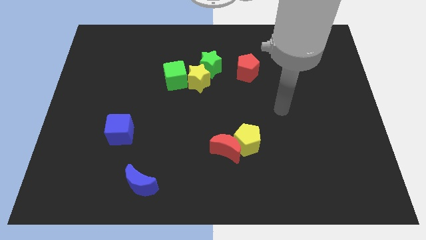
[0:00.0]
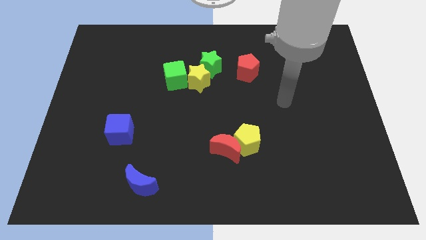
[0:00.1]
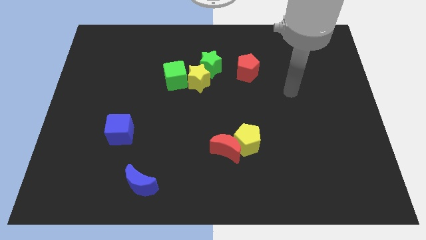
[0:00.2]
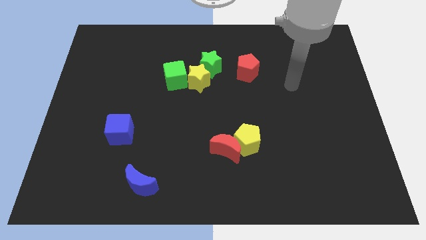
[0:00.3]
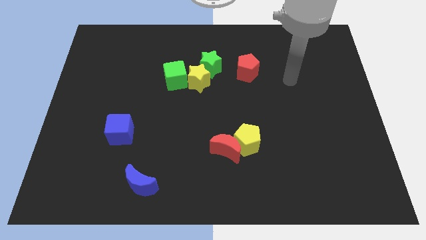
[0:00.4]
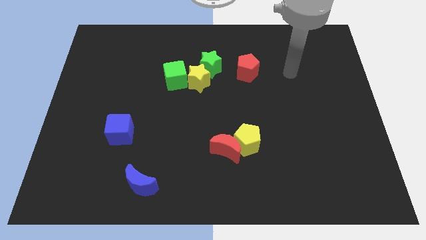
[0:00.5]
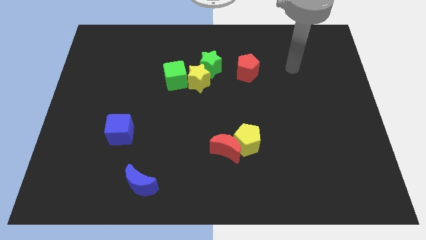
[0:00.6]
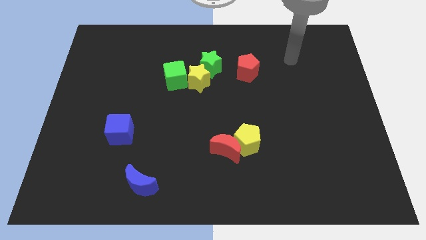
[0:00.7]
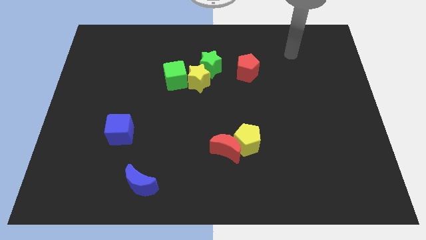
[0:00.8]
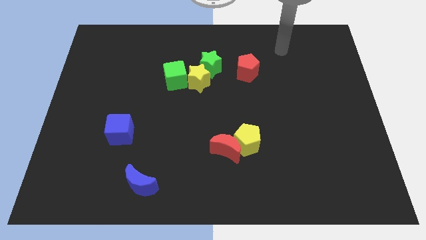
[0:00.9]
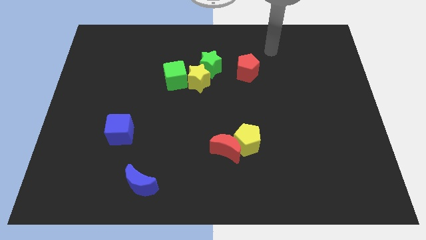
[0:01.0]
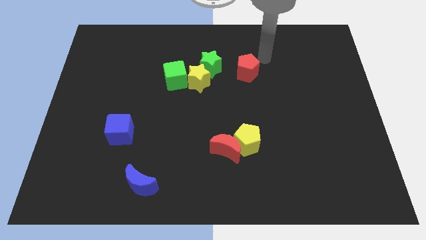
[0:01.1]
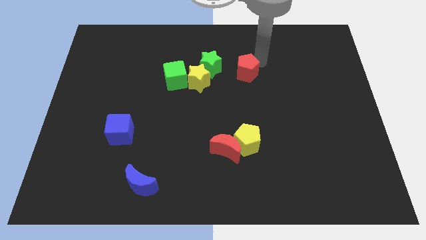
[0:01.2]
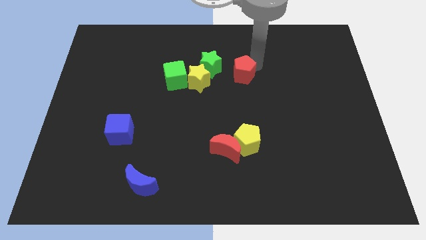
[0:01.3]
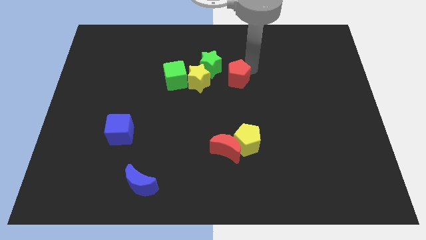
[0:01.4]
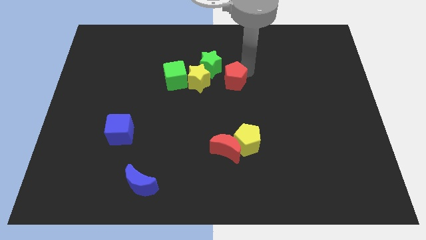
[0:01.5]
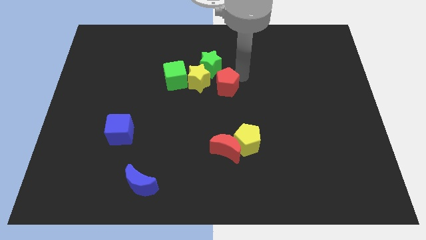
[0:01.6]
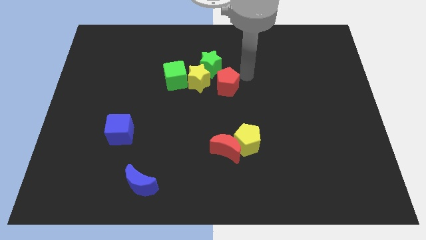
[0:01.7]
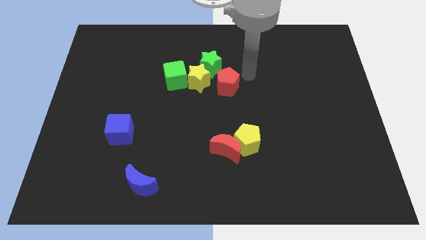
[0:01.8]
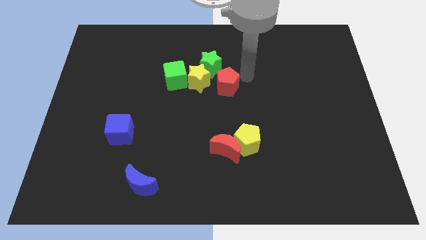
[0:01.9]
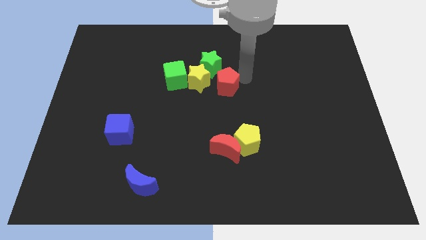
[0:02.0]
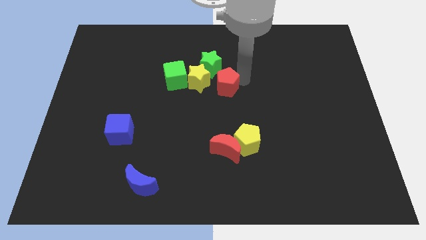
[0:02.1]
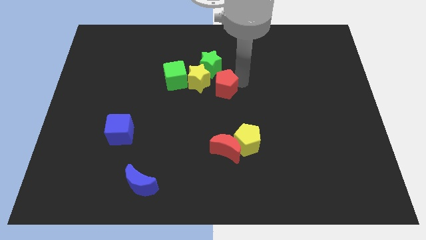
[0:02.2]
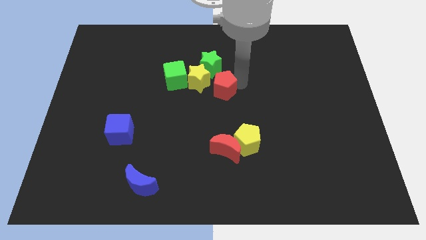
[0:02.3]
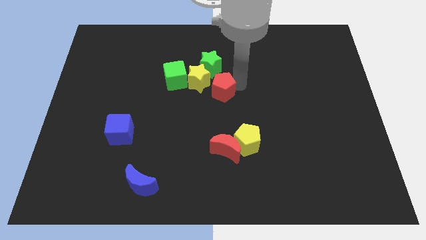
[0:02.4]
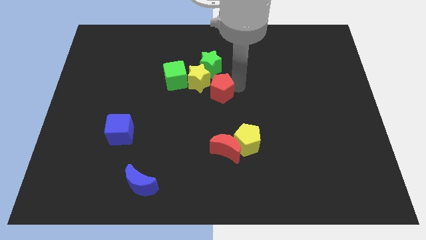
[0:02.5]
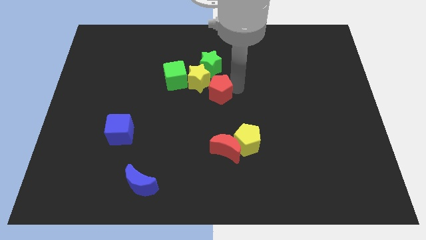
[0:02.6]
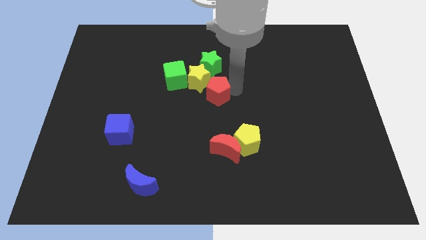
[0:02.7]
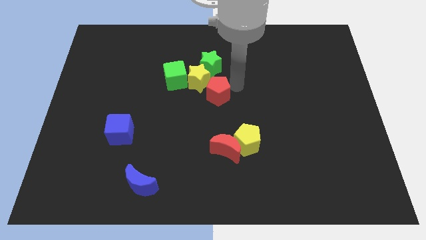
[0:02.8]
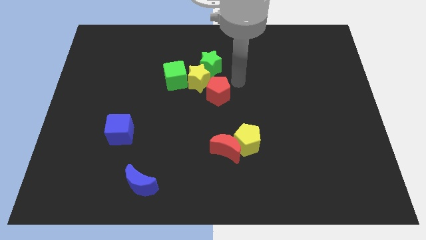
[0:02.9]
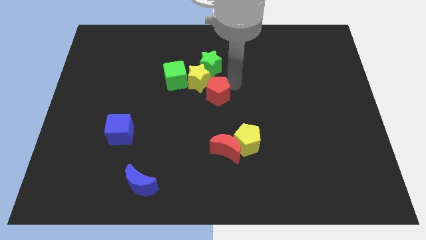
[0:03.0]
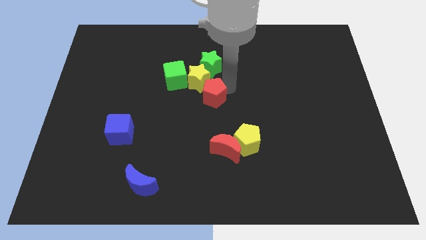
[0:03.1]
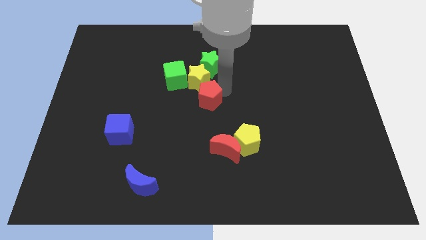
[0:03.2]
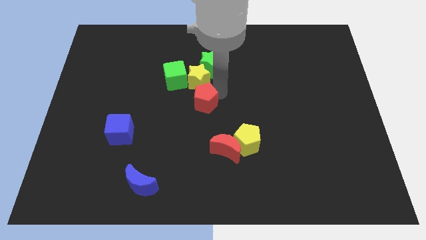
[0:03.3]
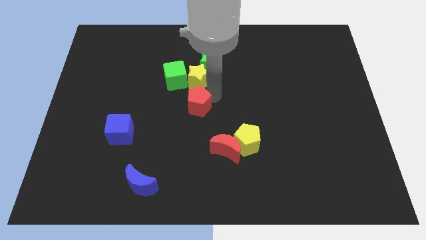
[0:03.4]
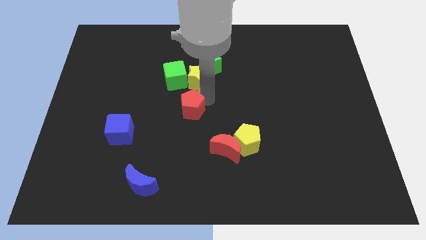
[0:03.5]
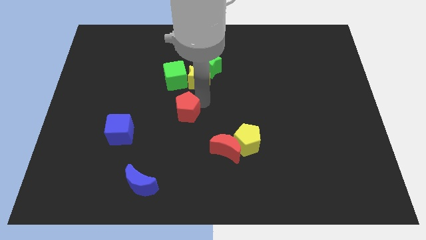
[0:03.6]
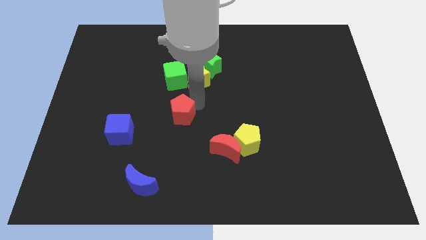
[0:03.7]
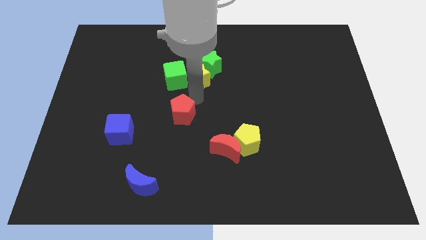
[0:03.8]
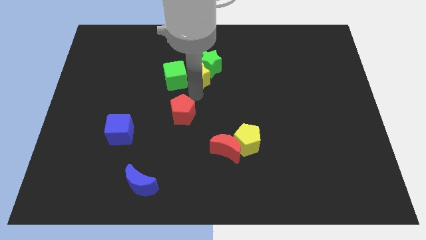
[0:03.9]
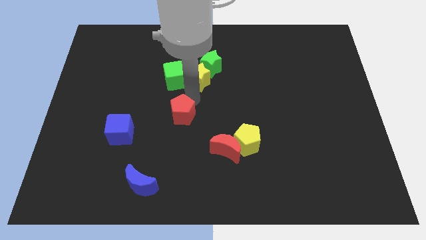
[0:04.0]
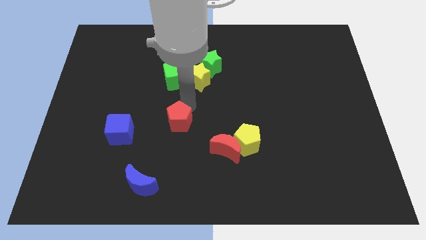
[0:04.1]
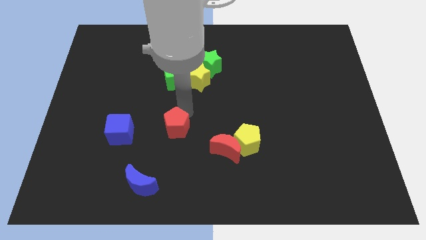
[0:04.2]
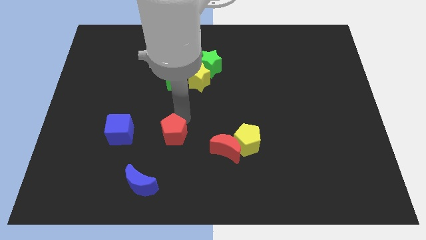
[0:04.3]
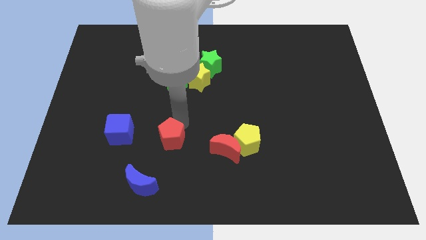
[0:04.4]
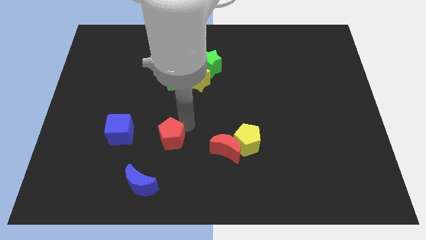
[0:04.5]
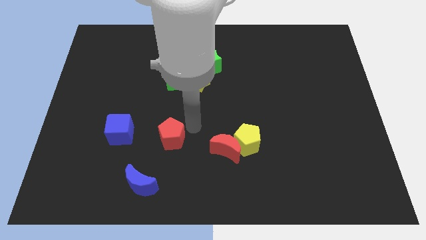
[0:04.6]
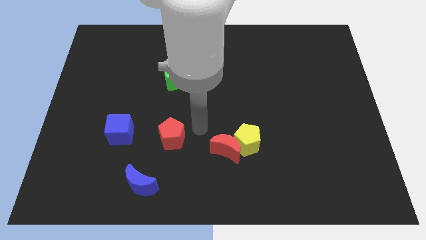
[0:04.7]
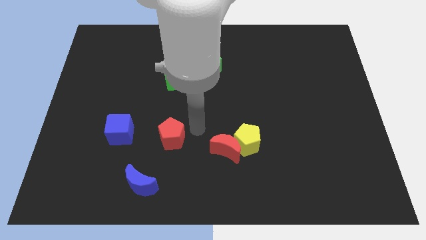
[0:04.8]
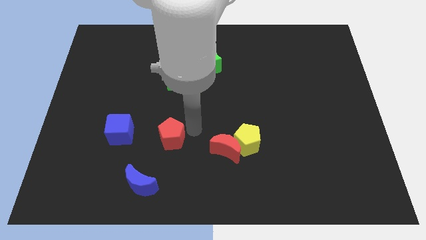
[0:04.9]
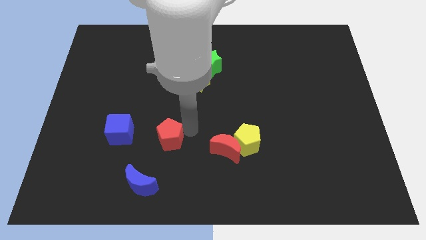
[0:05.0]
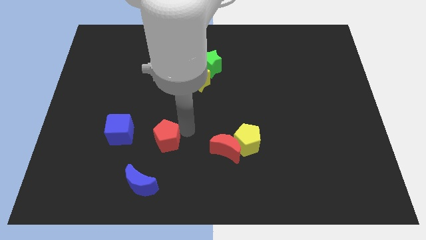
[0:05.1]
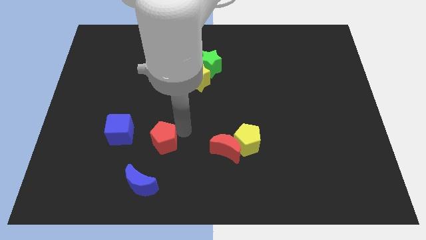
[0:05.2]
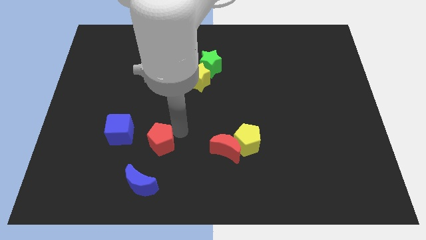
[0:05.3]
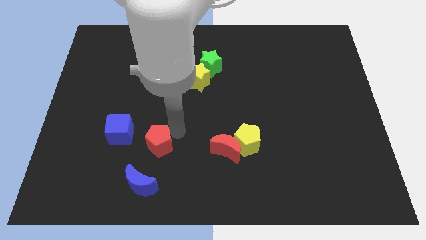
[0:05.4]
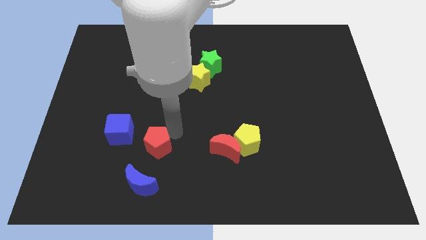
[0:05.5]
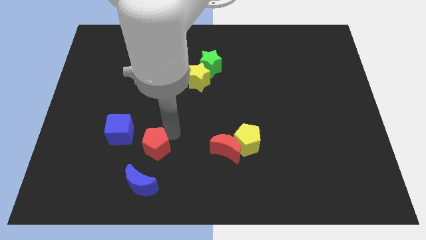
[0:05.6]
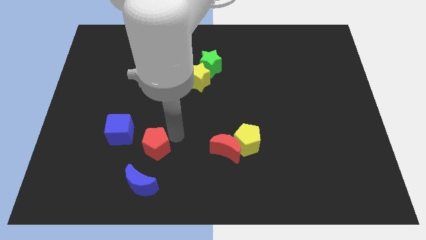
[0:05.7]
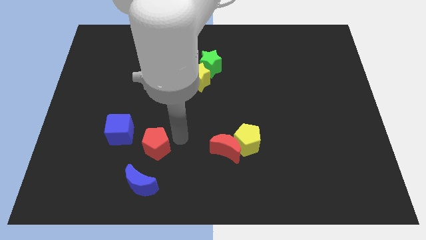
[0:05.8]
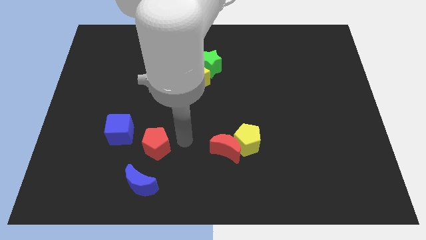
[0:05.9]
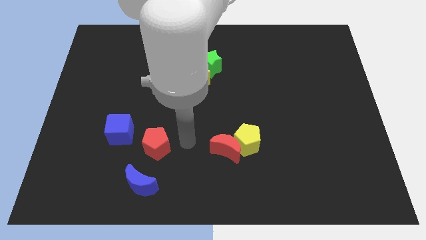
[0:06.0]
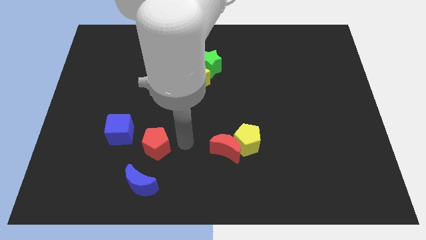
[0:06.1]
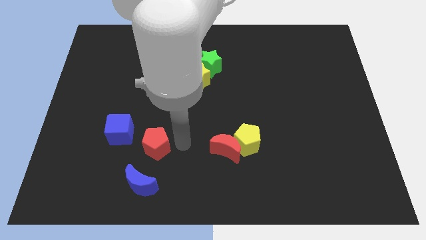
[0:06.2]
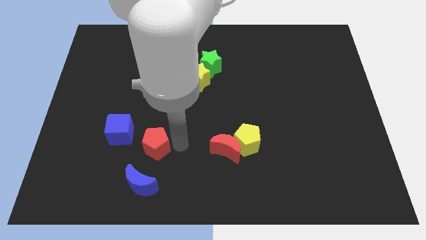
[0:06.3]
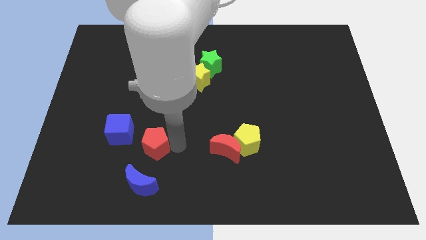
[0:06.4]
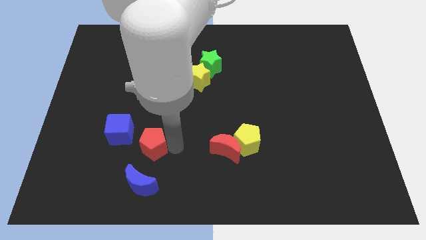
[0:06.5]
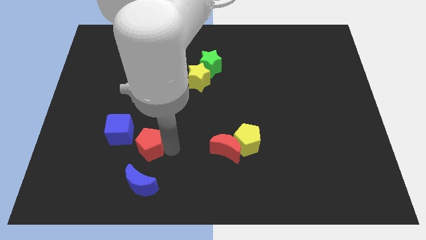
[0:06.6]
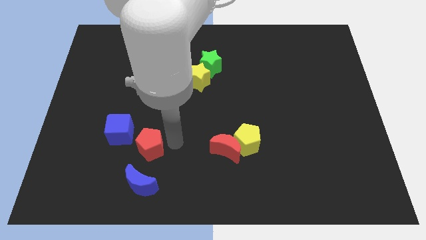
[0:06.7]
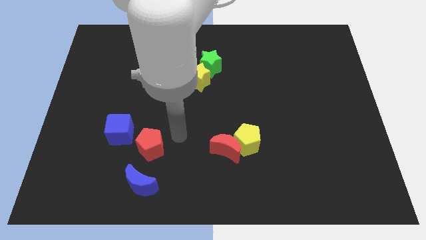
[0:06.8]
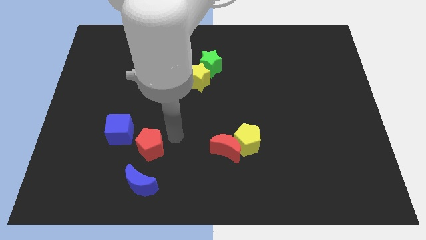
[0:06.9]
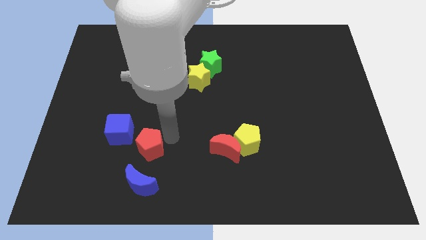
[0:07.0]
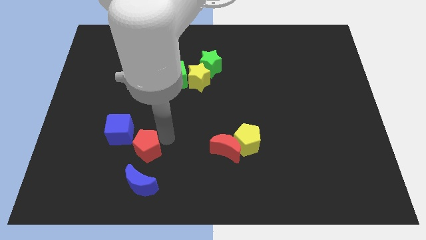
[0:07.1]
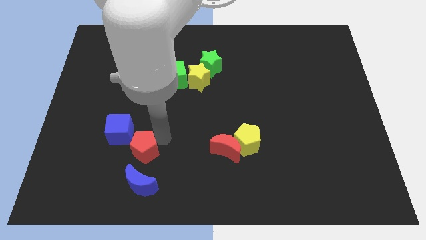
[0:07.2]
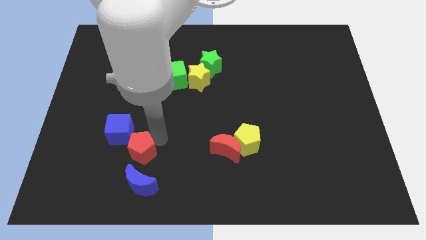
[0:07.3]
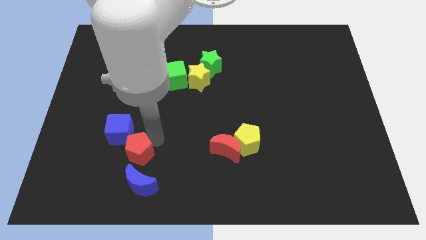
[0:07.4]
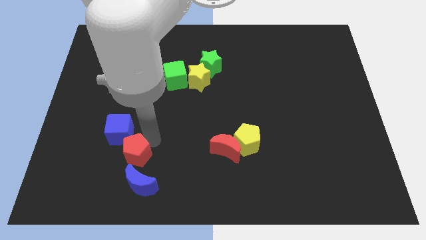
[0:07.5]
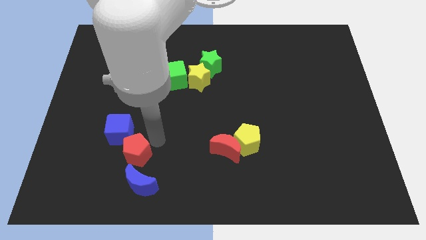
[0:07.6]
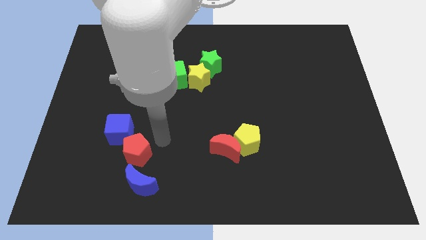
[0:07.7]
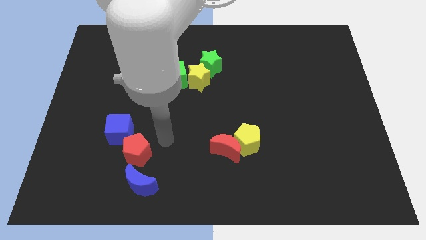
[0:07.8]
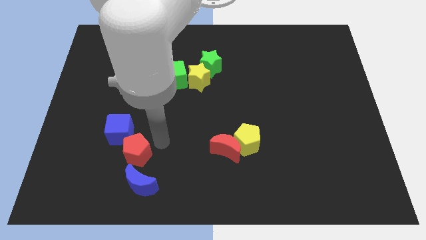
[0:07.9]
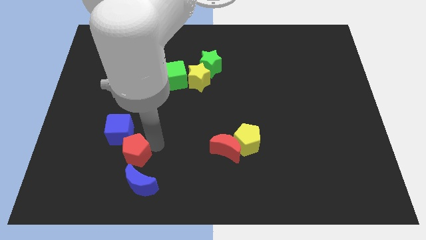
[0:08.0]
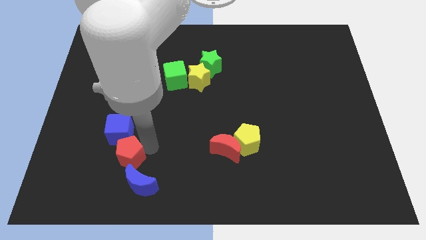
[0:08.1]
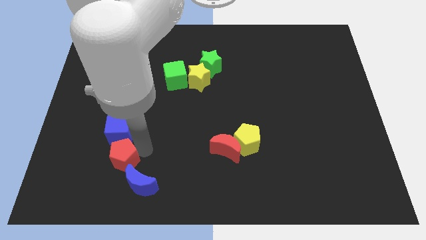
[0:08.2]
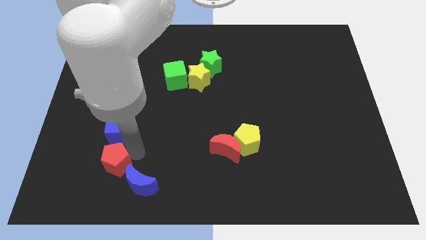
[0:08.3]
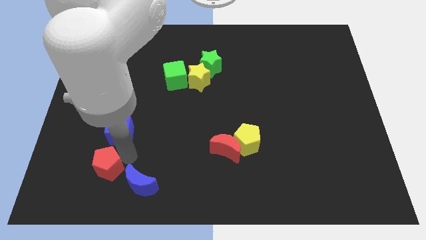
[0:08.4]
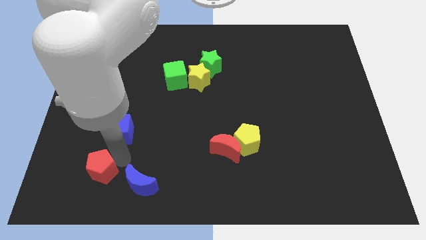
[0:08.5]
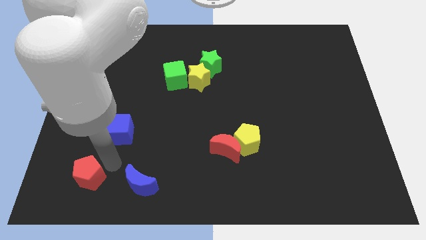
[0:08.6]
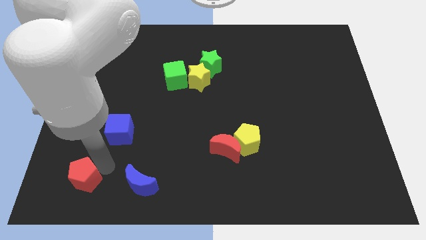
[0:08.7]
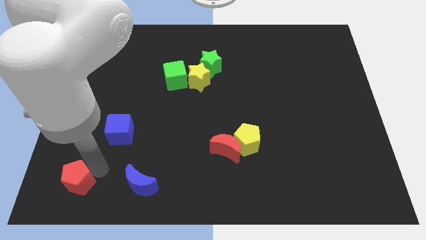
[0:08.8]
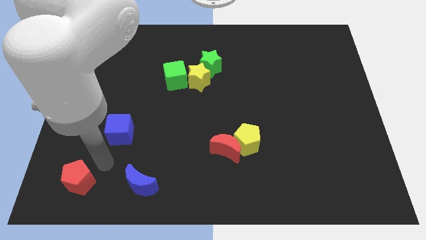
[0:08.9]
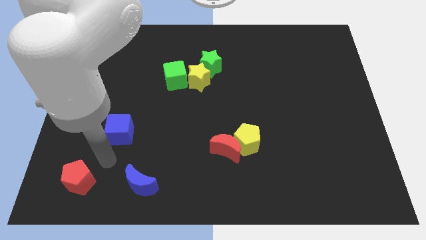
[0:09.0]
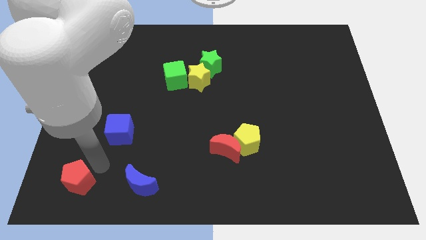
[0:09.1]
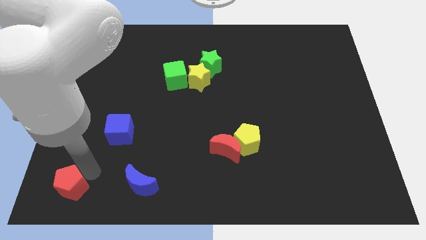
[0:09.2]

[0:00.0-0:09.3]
slide the red pentagon to the bottom left of the board
